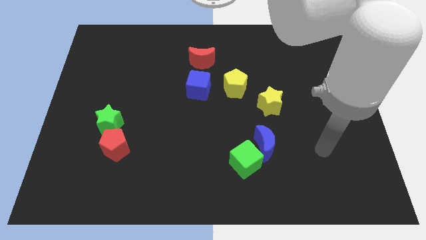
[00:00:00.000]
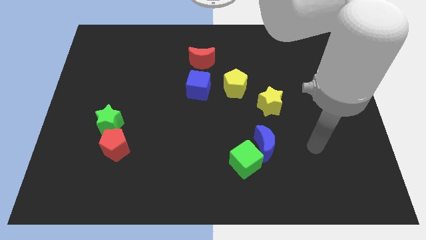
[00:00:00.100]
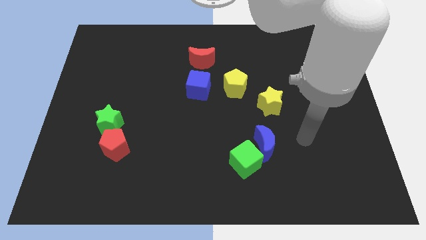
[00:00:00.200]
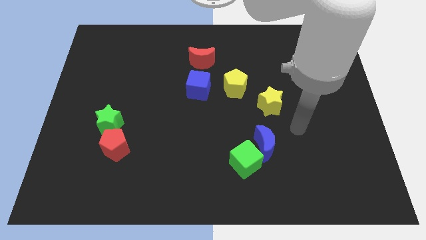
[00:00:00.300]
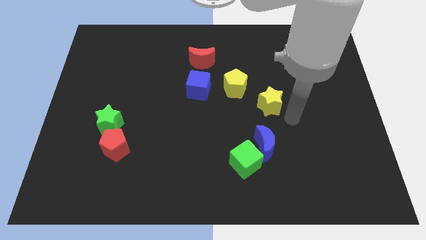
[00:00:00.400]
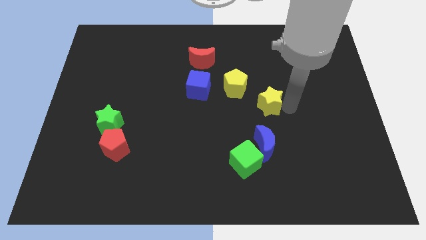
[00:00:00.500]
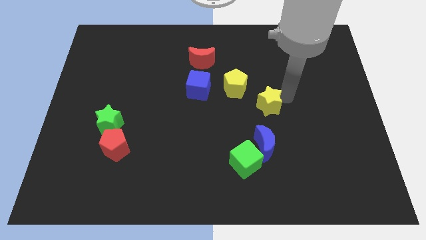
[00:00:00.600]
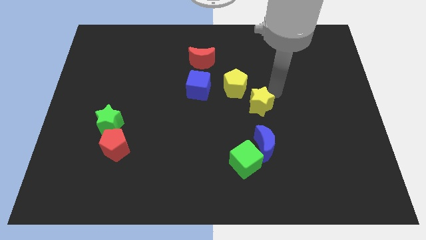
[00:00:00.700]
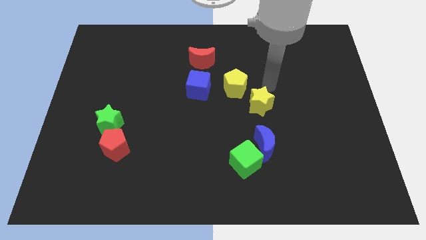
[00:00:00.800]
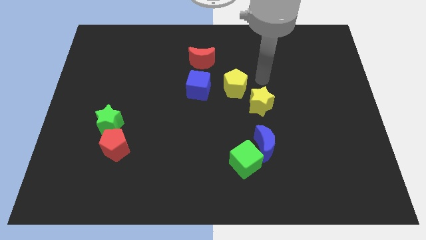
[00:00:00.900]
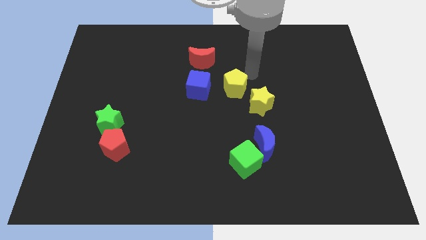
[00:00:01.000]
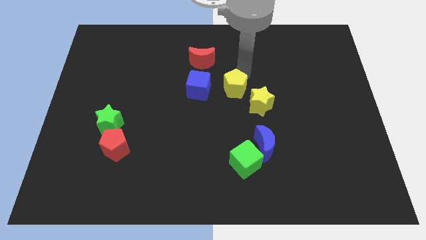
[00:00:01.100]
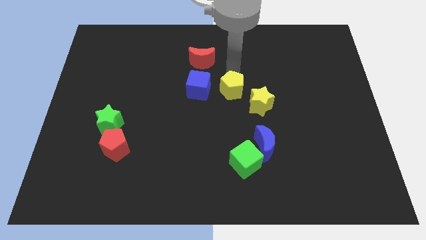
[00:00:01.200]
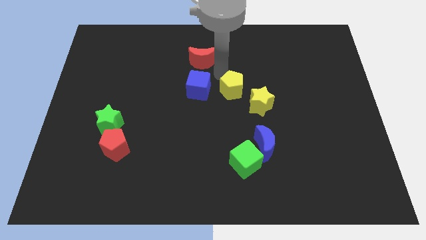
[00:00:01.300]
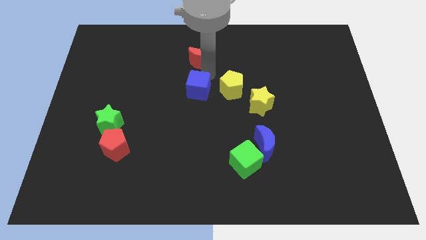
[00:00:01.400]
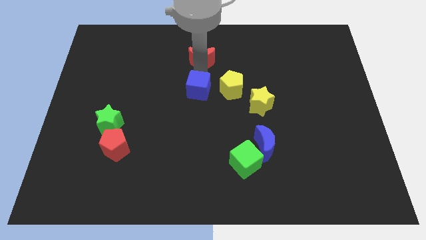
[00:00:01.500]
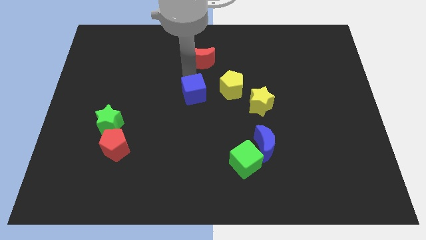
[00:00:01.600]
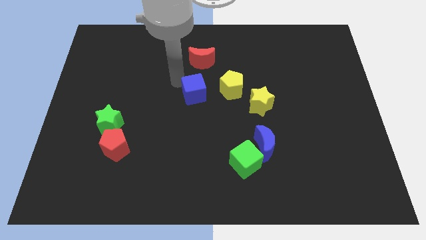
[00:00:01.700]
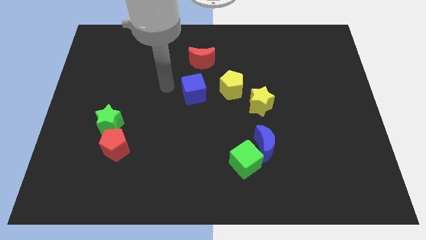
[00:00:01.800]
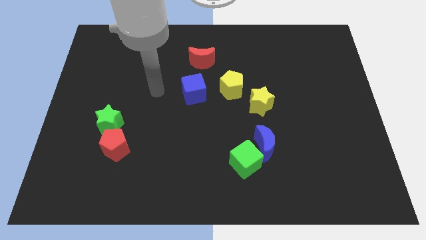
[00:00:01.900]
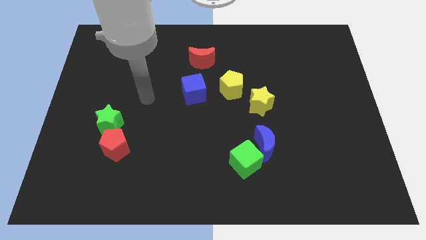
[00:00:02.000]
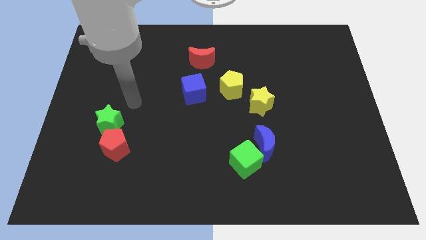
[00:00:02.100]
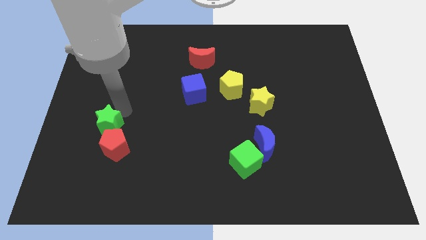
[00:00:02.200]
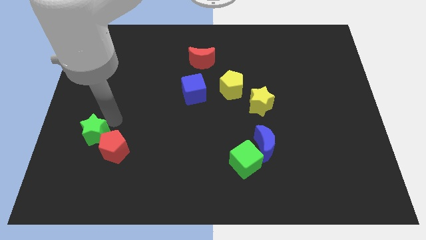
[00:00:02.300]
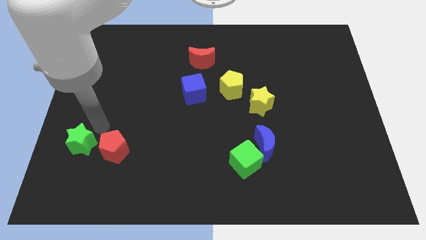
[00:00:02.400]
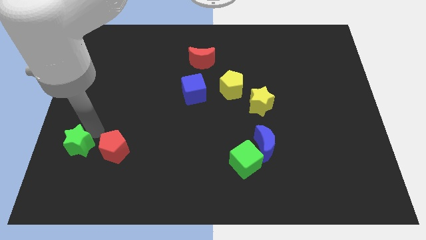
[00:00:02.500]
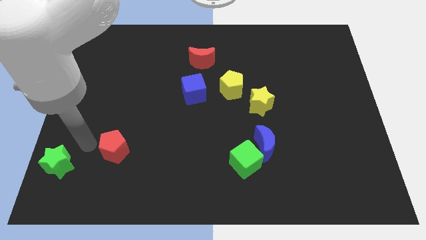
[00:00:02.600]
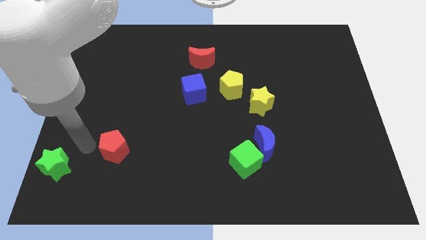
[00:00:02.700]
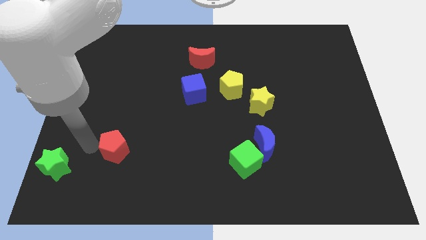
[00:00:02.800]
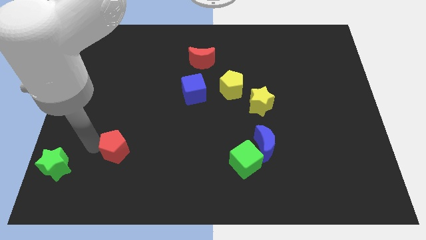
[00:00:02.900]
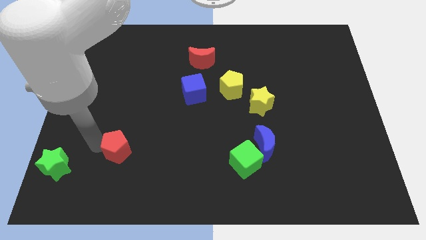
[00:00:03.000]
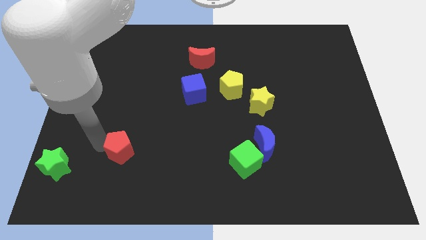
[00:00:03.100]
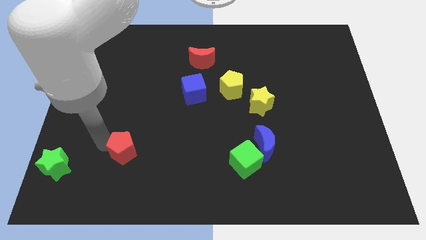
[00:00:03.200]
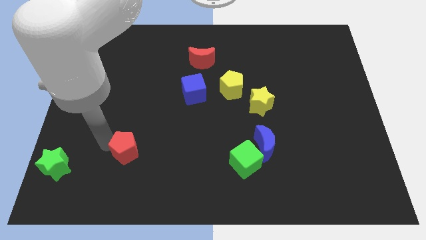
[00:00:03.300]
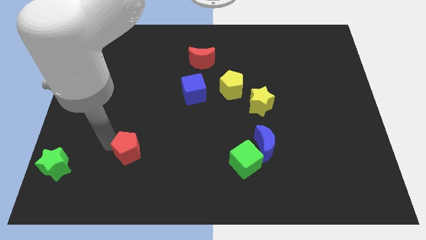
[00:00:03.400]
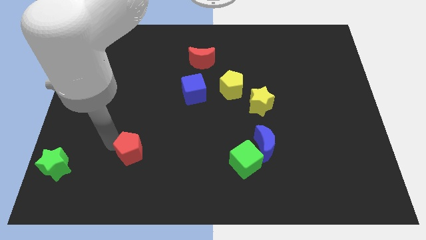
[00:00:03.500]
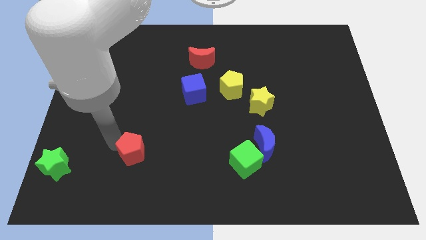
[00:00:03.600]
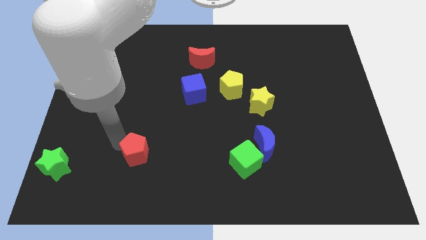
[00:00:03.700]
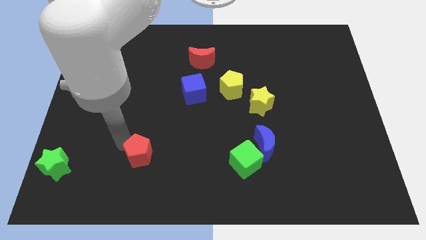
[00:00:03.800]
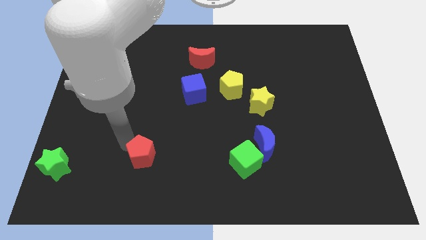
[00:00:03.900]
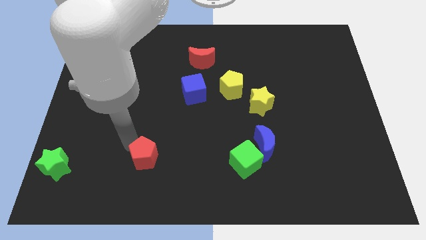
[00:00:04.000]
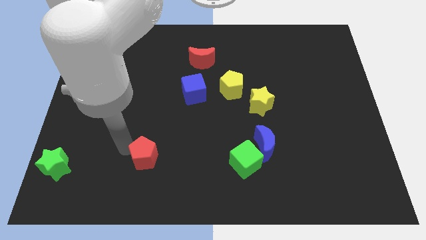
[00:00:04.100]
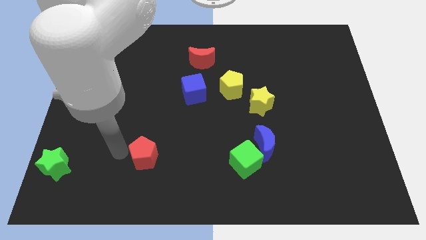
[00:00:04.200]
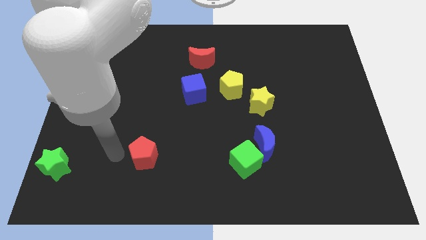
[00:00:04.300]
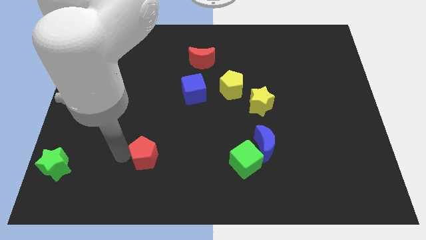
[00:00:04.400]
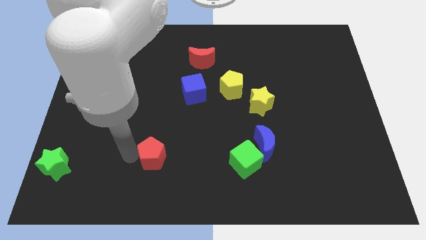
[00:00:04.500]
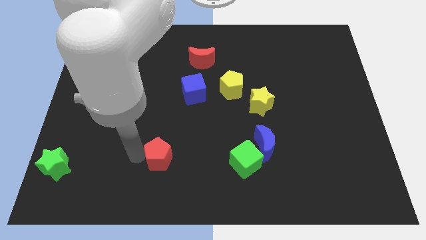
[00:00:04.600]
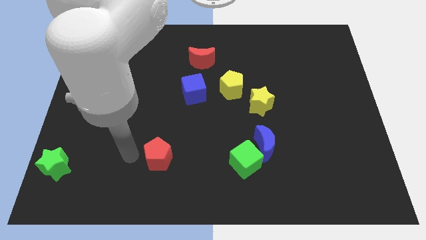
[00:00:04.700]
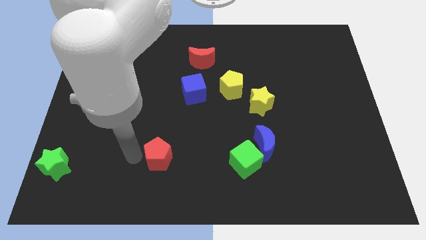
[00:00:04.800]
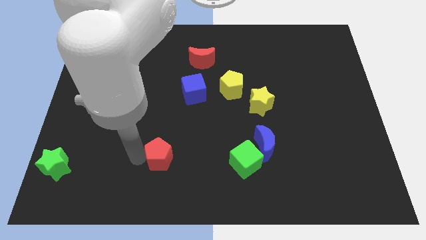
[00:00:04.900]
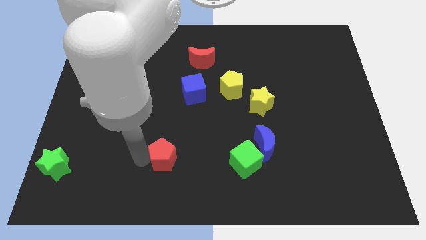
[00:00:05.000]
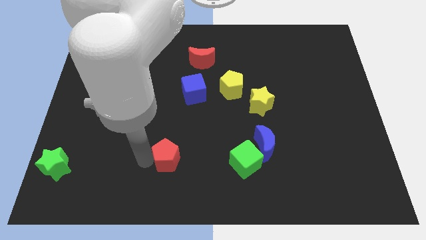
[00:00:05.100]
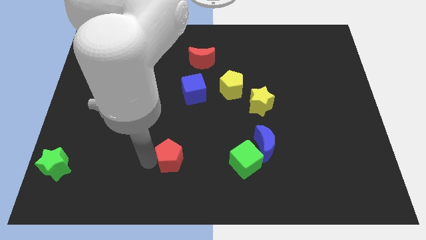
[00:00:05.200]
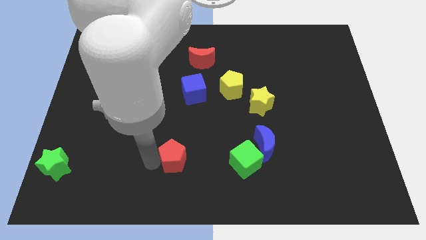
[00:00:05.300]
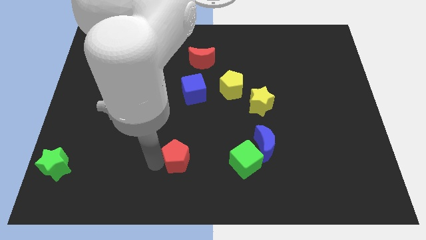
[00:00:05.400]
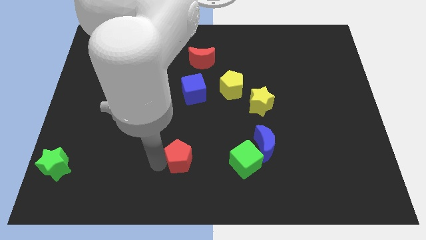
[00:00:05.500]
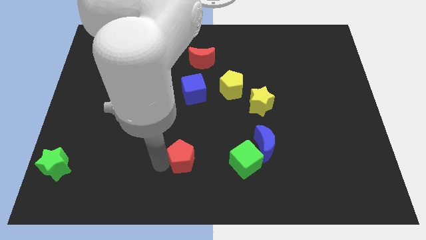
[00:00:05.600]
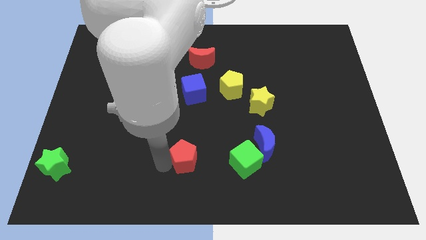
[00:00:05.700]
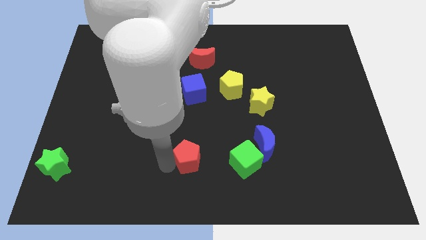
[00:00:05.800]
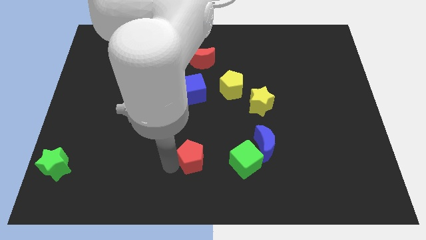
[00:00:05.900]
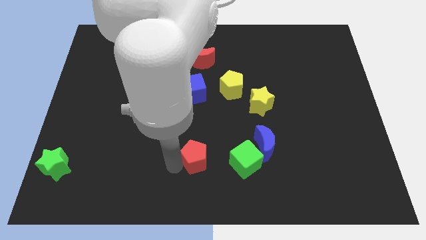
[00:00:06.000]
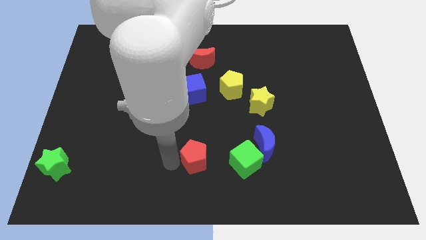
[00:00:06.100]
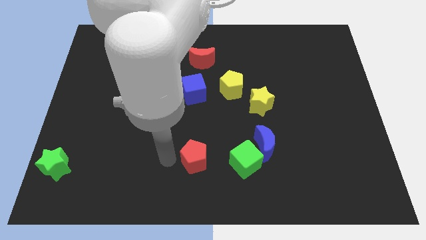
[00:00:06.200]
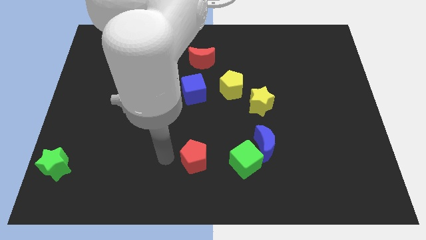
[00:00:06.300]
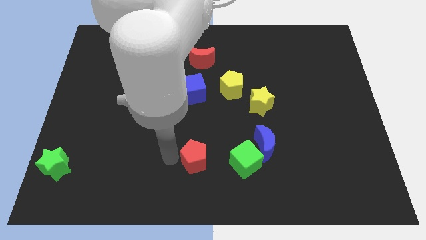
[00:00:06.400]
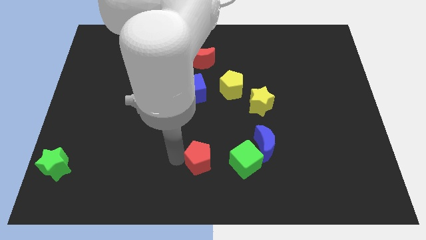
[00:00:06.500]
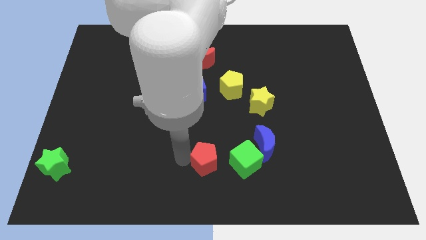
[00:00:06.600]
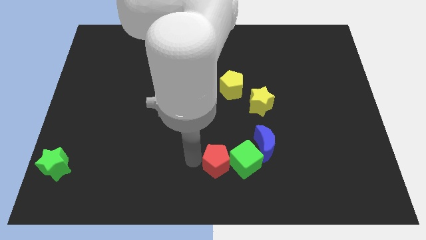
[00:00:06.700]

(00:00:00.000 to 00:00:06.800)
move the red pentagon close to the green cube

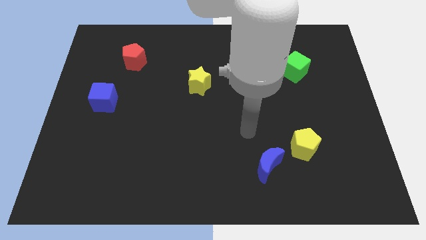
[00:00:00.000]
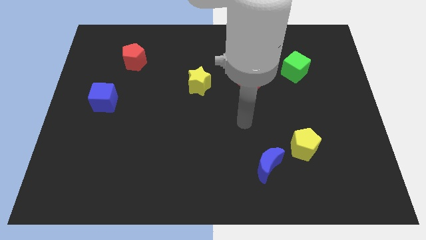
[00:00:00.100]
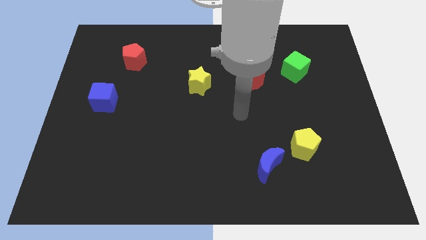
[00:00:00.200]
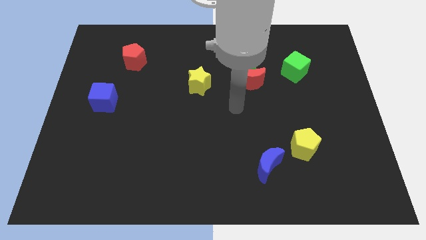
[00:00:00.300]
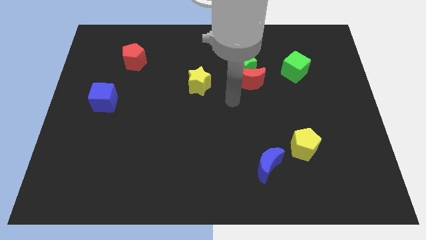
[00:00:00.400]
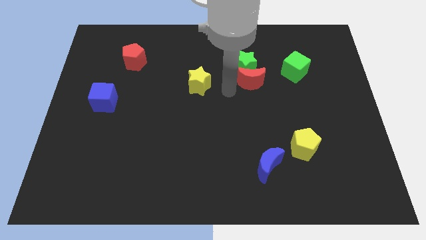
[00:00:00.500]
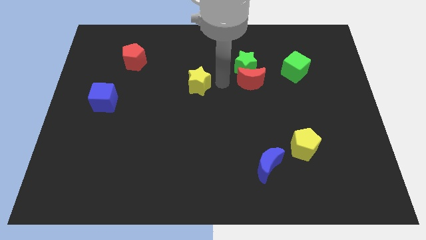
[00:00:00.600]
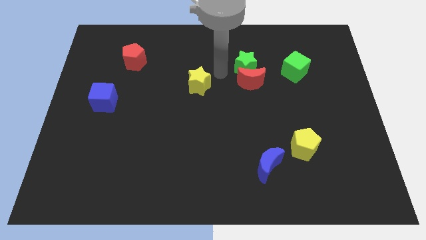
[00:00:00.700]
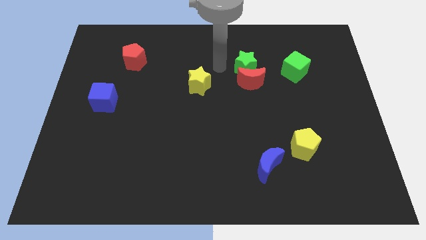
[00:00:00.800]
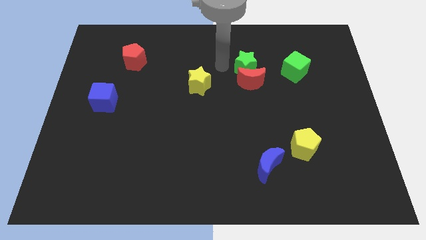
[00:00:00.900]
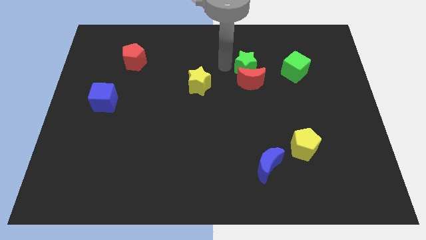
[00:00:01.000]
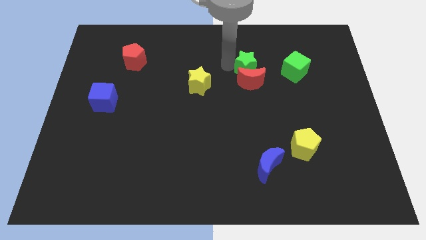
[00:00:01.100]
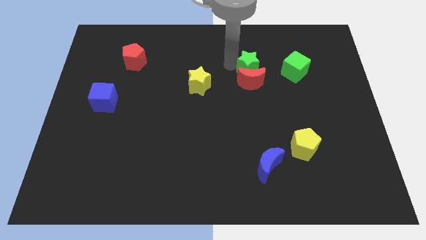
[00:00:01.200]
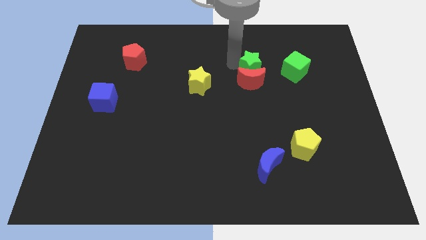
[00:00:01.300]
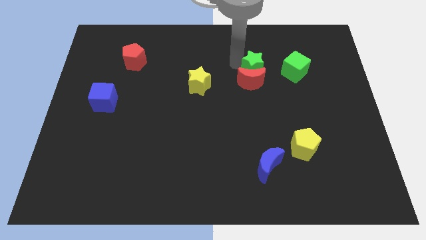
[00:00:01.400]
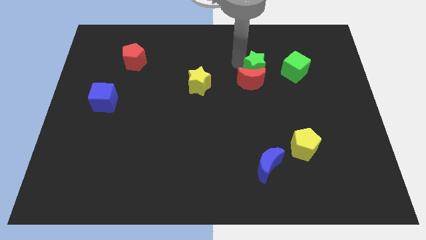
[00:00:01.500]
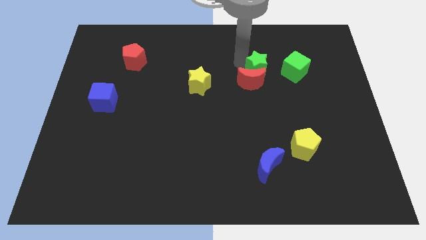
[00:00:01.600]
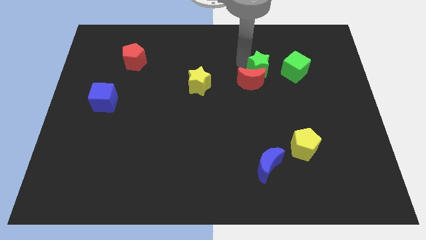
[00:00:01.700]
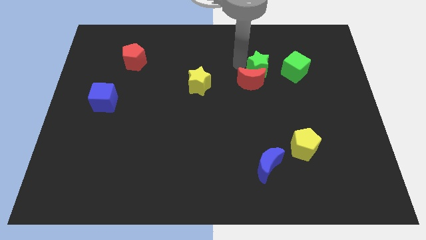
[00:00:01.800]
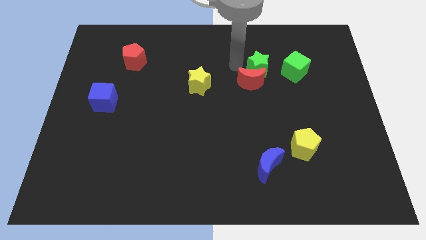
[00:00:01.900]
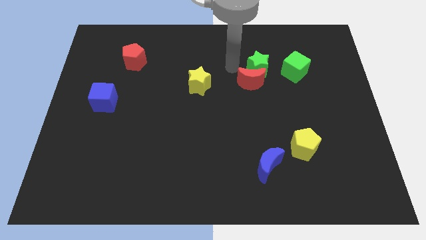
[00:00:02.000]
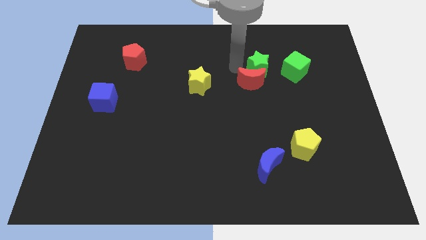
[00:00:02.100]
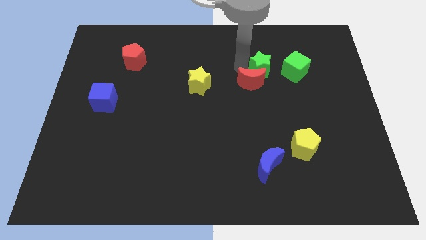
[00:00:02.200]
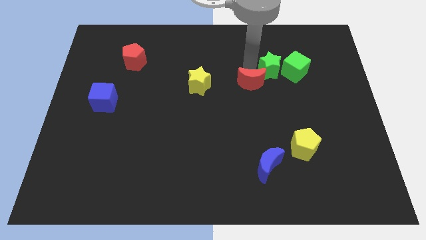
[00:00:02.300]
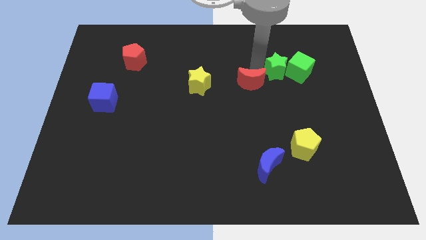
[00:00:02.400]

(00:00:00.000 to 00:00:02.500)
slide the green star towards the green cube
